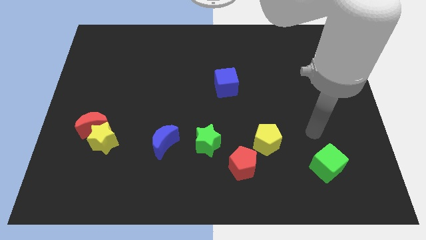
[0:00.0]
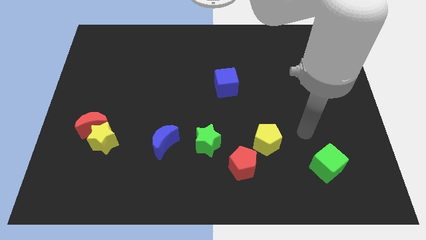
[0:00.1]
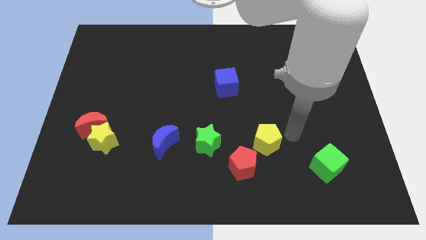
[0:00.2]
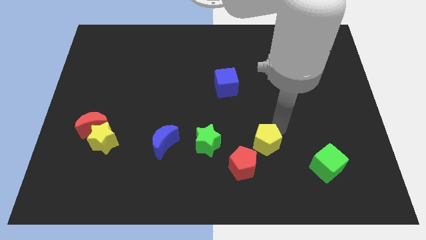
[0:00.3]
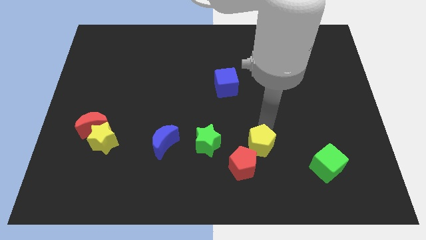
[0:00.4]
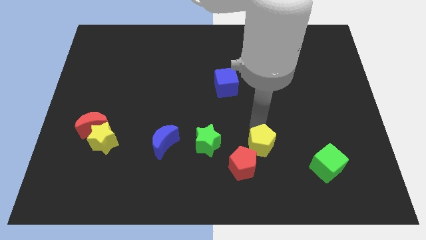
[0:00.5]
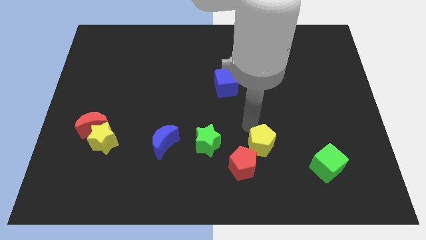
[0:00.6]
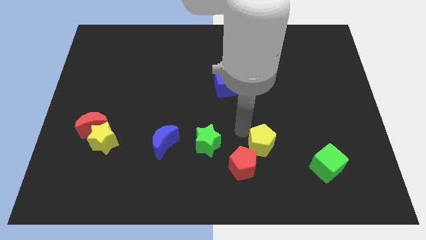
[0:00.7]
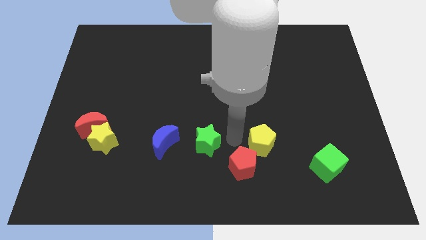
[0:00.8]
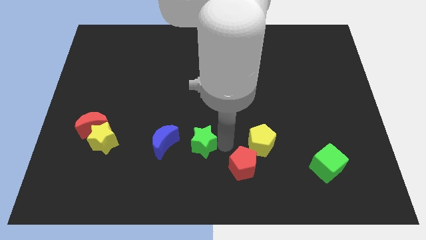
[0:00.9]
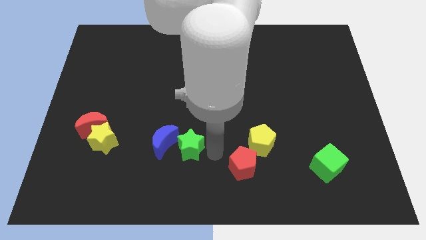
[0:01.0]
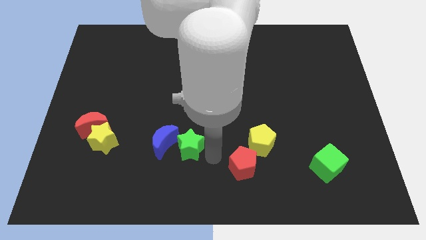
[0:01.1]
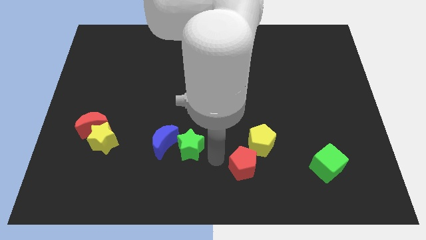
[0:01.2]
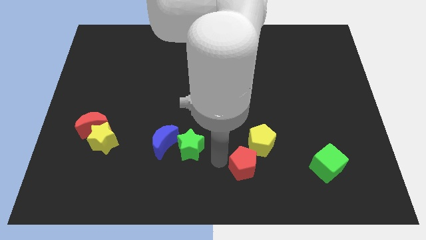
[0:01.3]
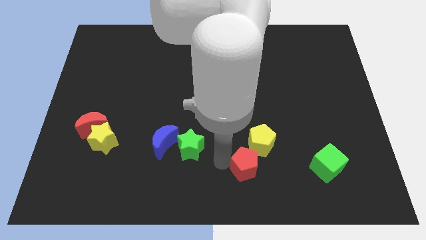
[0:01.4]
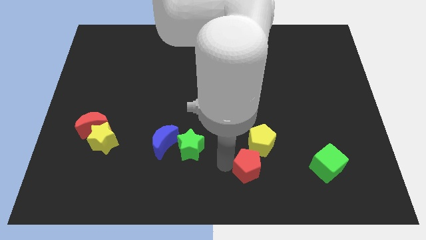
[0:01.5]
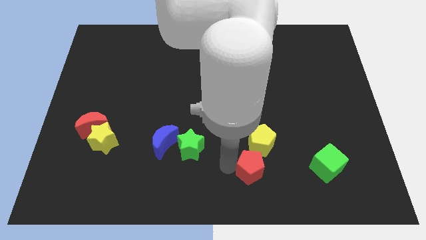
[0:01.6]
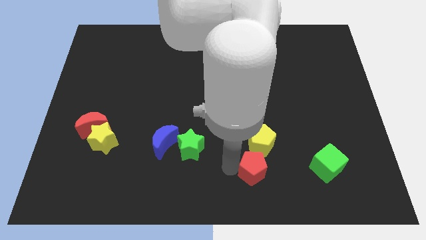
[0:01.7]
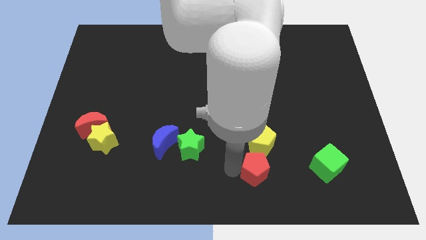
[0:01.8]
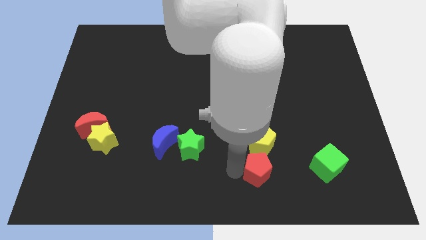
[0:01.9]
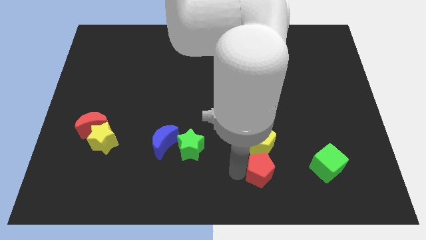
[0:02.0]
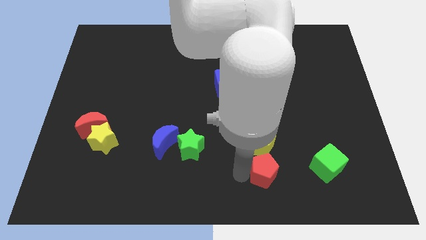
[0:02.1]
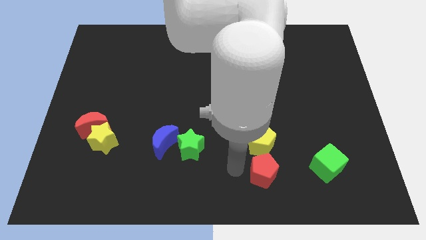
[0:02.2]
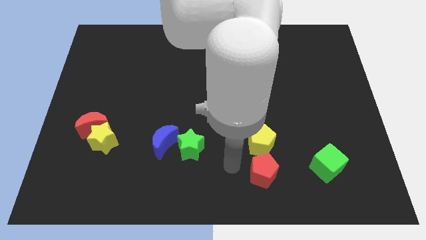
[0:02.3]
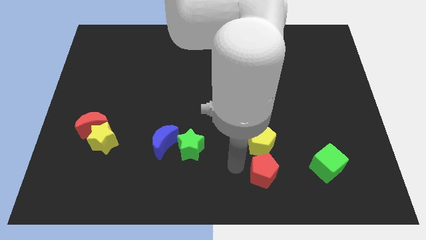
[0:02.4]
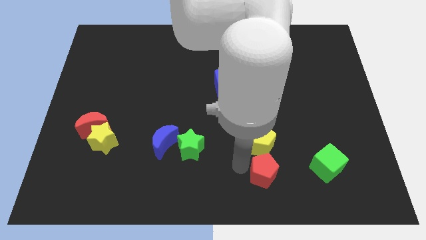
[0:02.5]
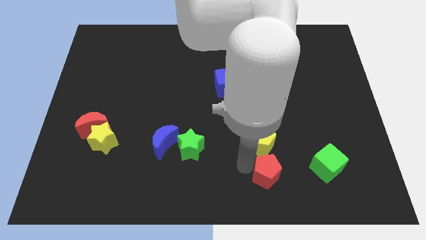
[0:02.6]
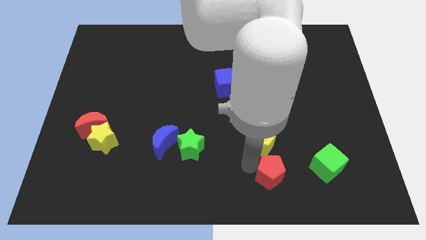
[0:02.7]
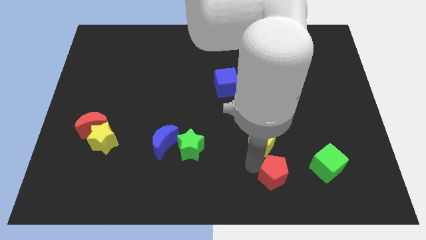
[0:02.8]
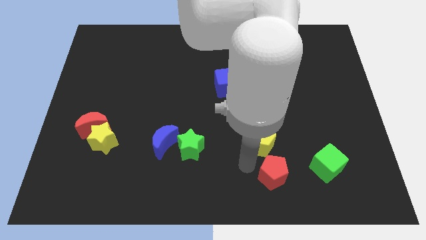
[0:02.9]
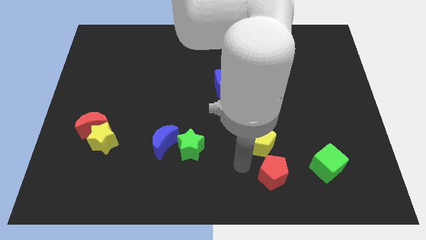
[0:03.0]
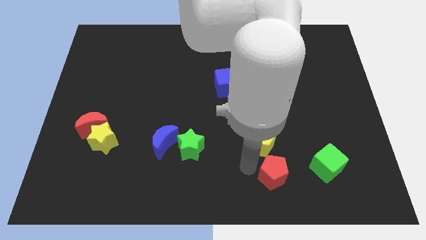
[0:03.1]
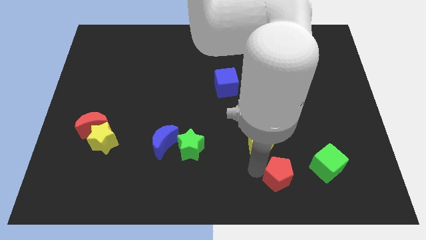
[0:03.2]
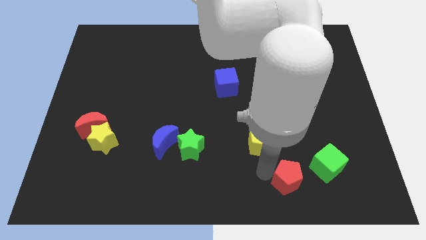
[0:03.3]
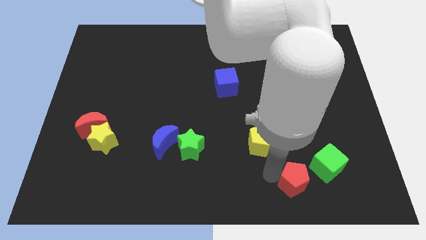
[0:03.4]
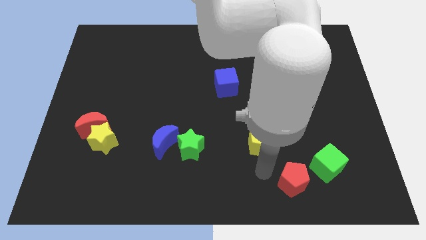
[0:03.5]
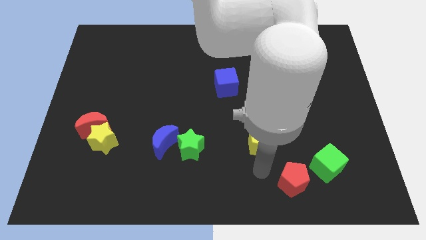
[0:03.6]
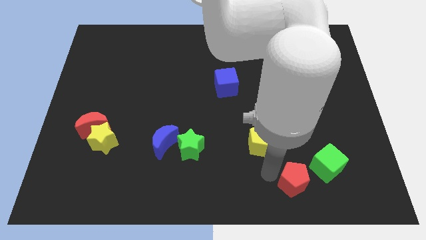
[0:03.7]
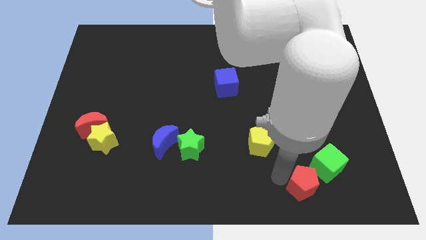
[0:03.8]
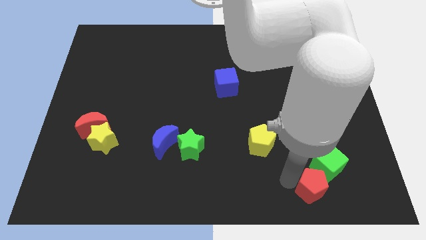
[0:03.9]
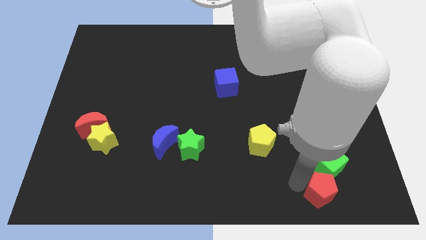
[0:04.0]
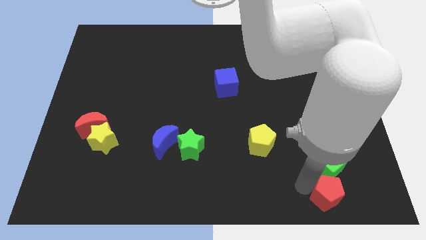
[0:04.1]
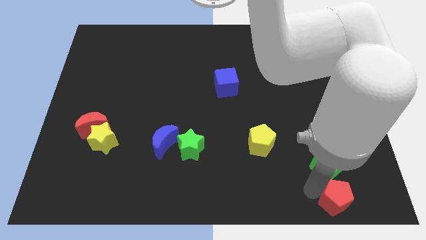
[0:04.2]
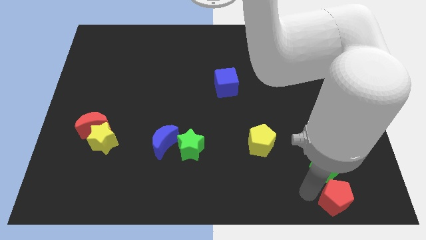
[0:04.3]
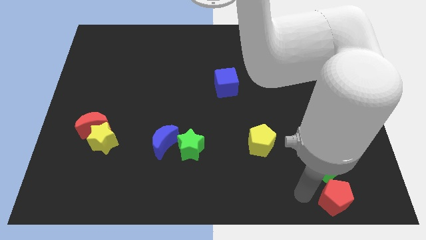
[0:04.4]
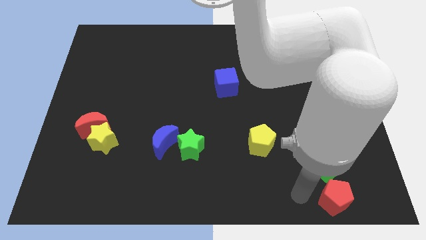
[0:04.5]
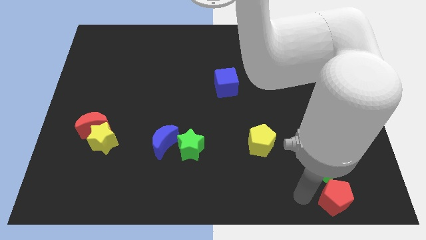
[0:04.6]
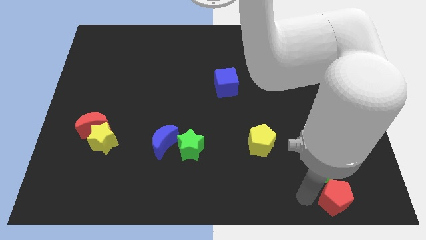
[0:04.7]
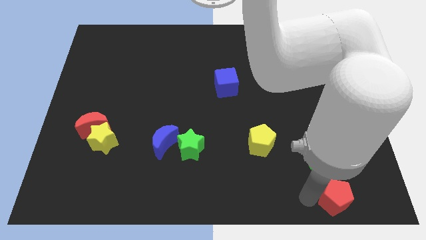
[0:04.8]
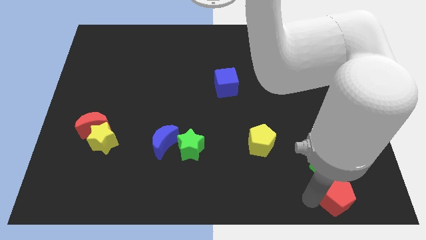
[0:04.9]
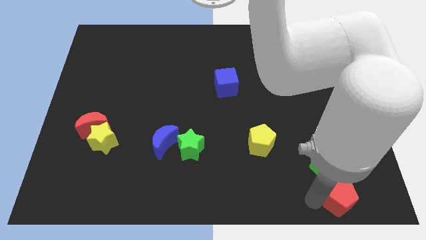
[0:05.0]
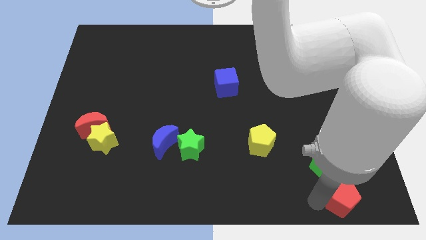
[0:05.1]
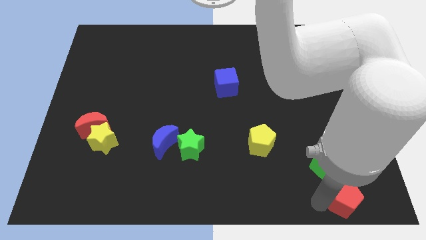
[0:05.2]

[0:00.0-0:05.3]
push the red pentagon to the lower right corner

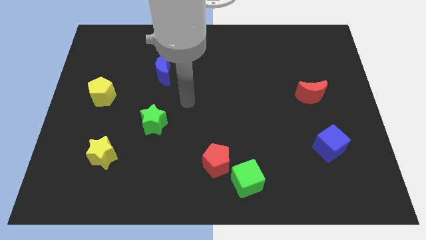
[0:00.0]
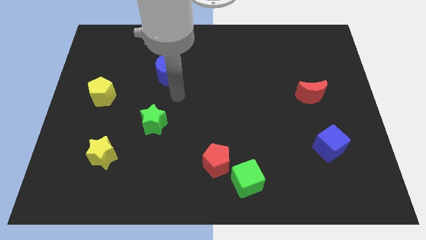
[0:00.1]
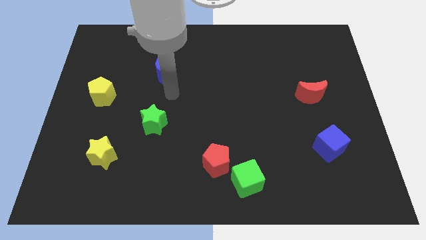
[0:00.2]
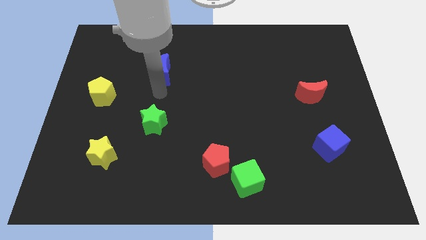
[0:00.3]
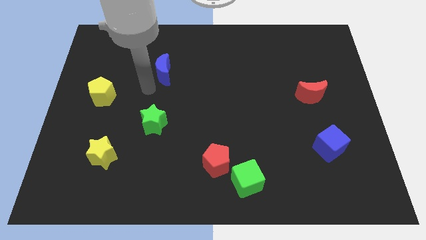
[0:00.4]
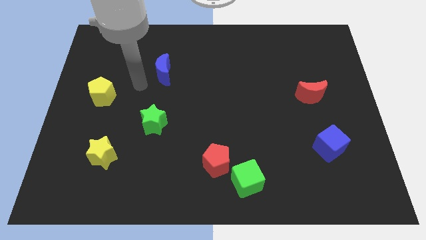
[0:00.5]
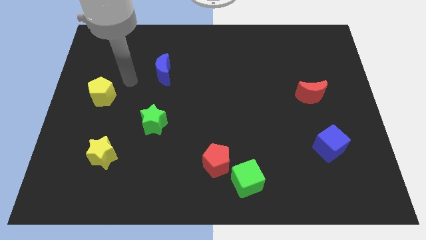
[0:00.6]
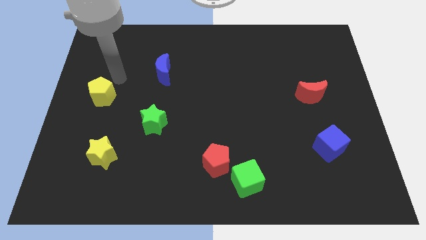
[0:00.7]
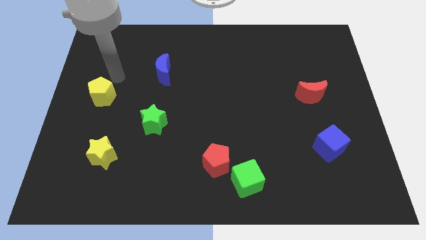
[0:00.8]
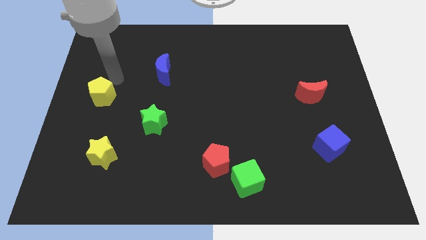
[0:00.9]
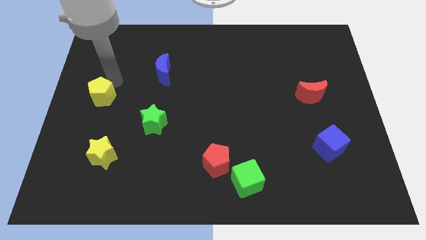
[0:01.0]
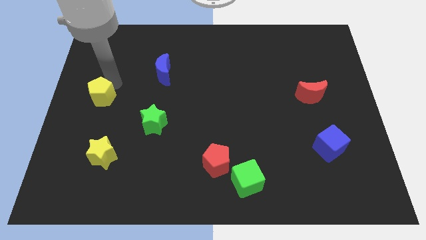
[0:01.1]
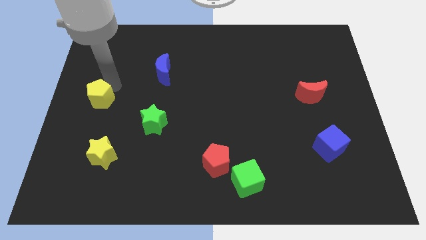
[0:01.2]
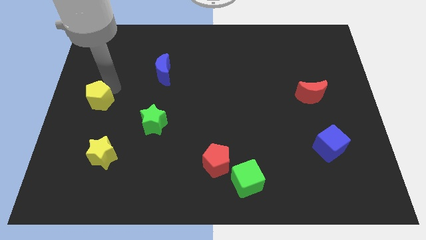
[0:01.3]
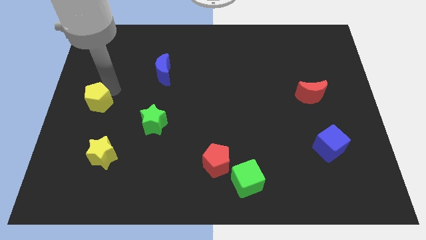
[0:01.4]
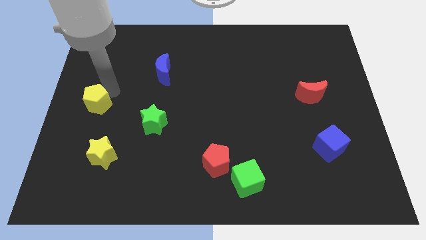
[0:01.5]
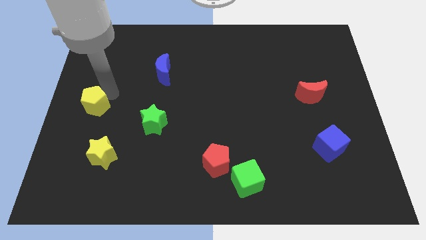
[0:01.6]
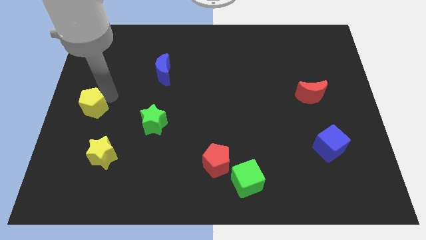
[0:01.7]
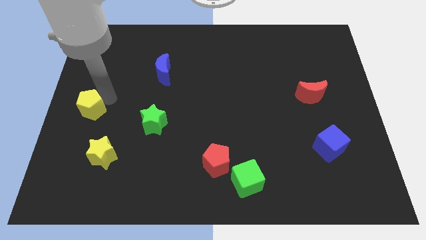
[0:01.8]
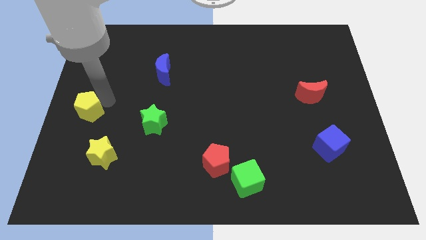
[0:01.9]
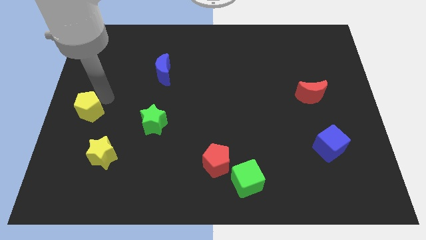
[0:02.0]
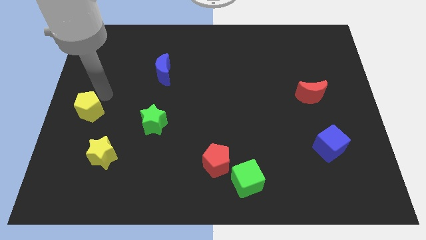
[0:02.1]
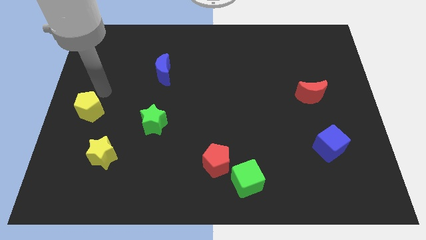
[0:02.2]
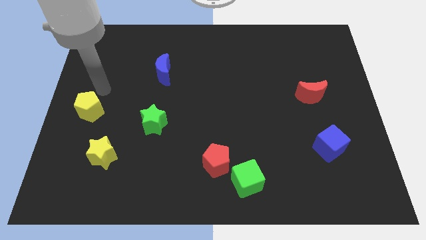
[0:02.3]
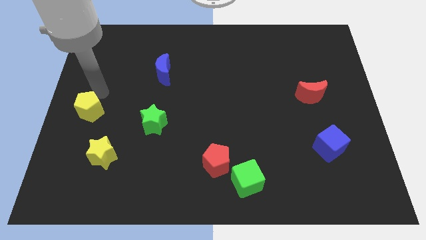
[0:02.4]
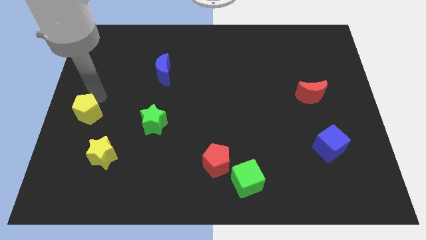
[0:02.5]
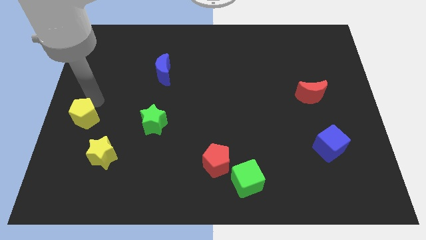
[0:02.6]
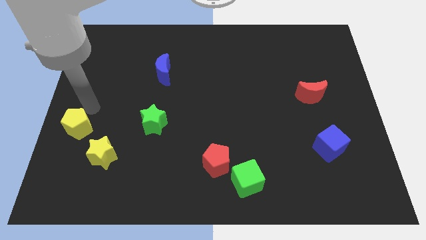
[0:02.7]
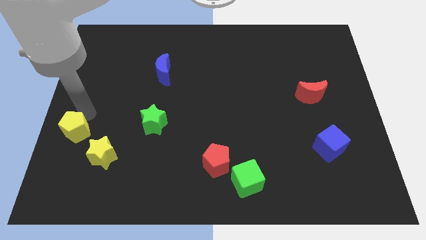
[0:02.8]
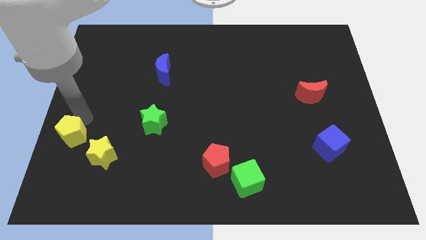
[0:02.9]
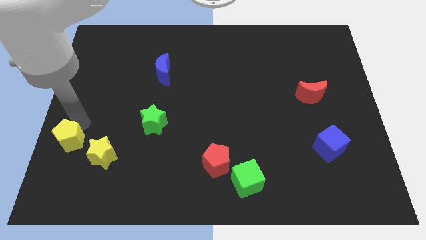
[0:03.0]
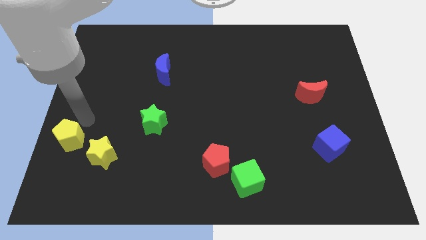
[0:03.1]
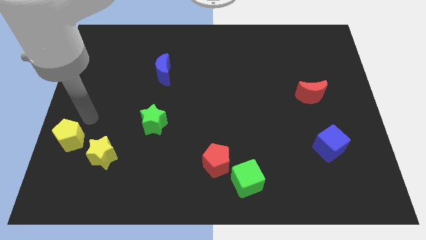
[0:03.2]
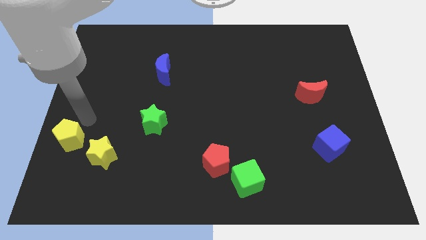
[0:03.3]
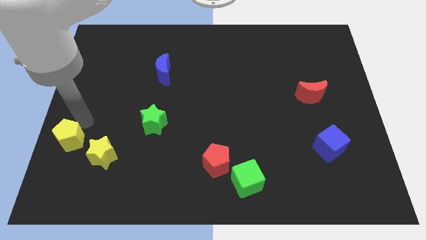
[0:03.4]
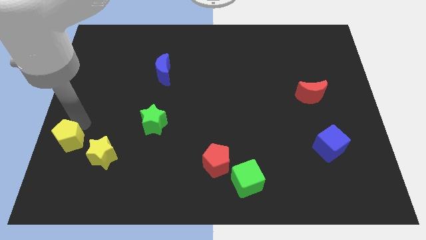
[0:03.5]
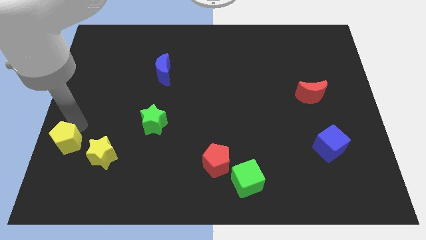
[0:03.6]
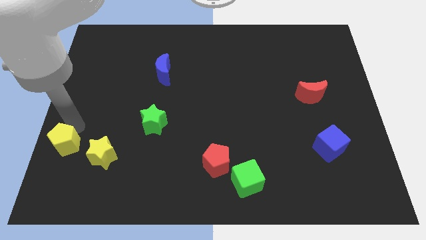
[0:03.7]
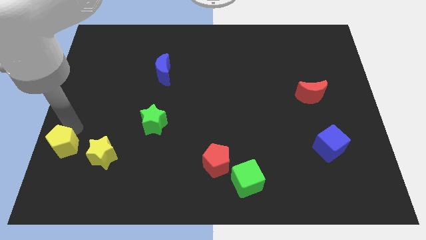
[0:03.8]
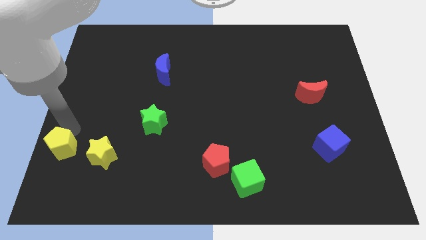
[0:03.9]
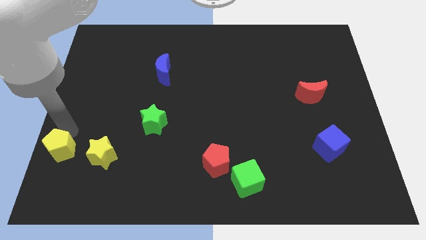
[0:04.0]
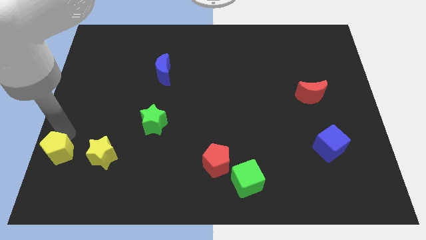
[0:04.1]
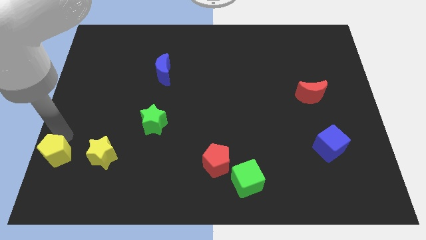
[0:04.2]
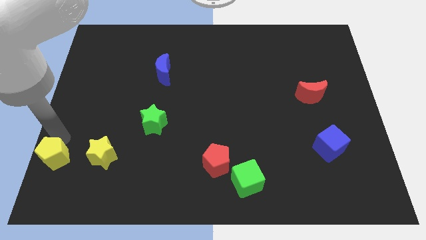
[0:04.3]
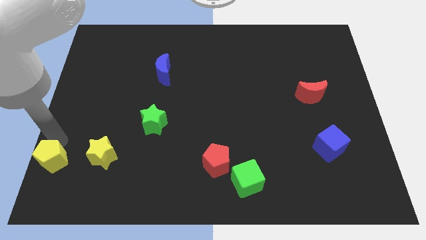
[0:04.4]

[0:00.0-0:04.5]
put the yellow pentagon to the bottom left corner
